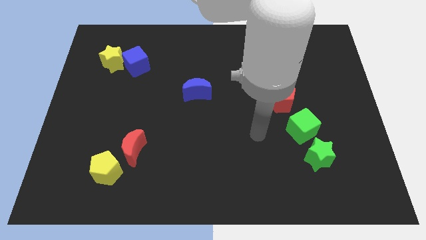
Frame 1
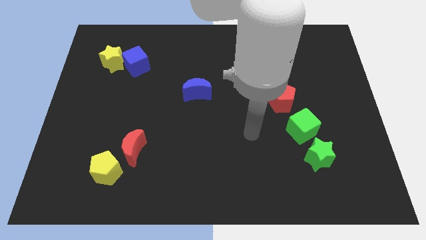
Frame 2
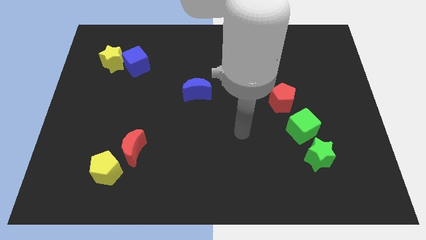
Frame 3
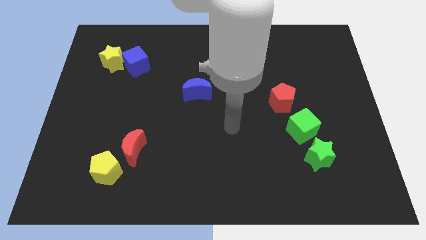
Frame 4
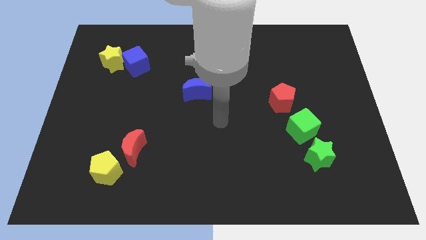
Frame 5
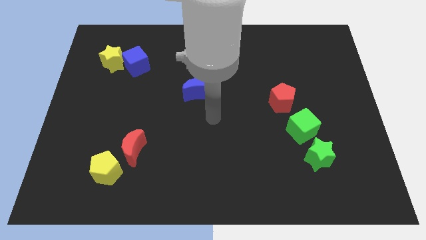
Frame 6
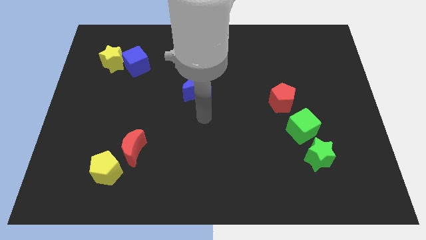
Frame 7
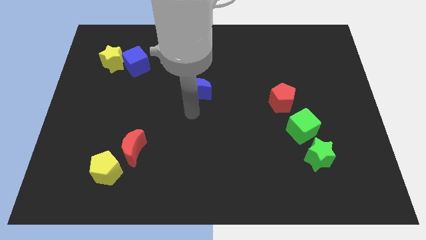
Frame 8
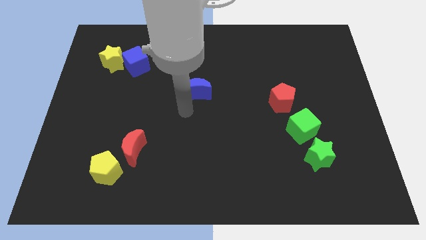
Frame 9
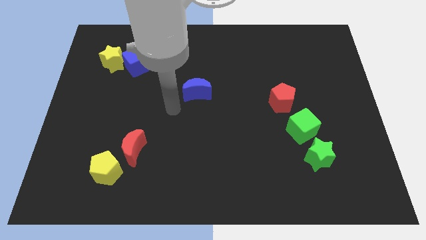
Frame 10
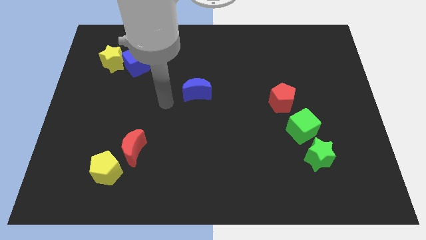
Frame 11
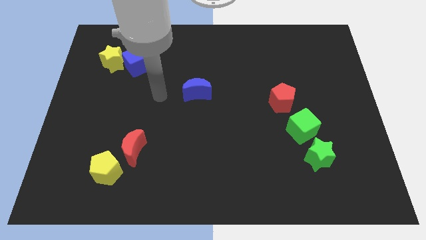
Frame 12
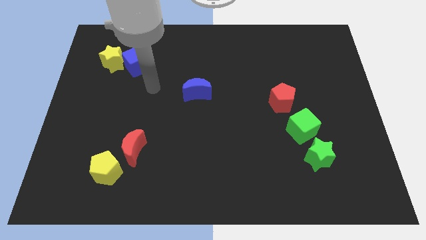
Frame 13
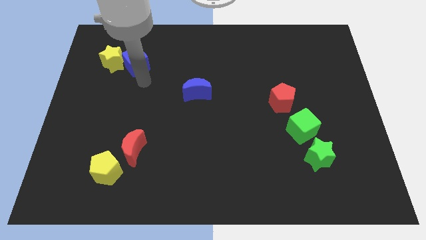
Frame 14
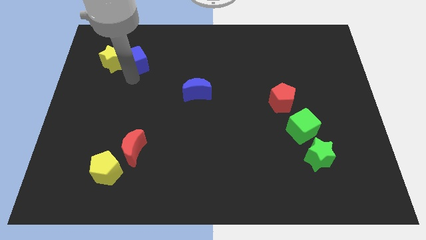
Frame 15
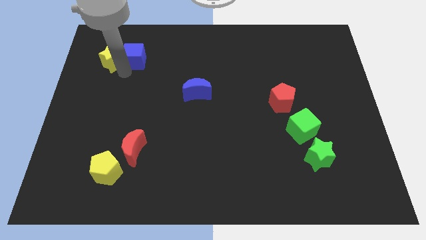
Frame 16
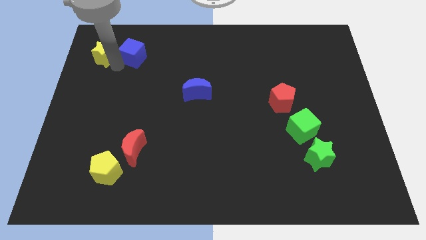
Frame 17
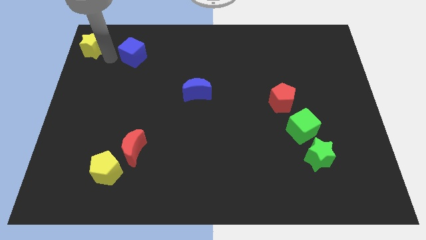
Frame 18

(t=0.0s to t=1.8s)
pull the blue cube apart from the yellow star

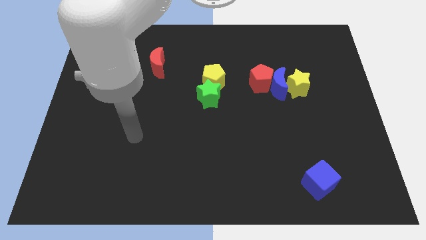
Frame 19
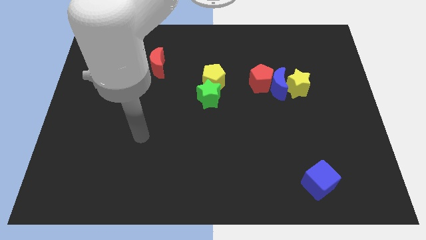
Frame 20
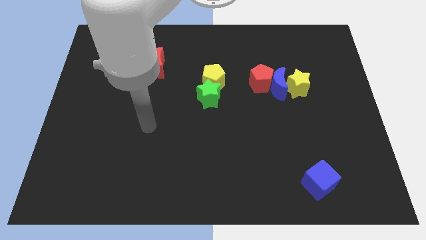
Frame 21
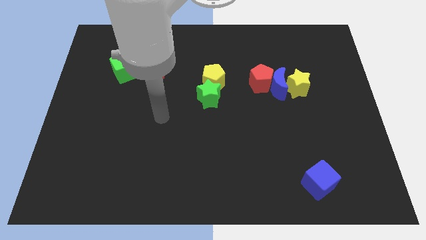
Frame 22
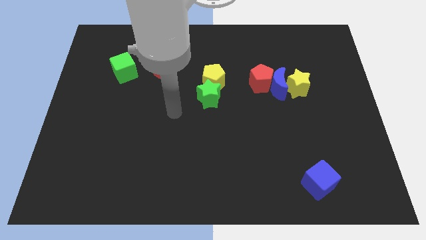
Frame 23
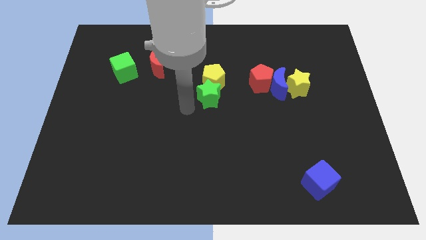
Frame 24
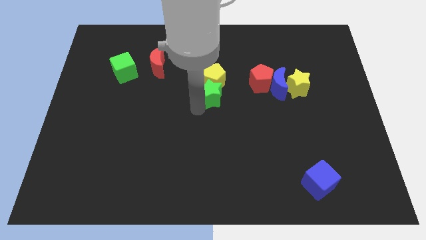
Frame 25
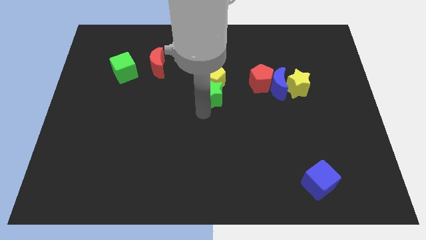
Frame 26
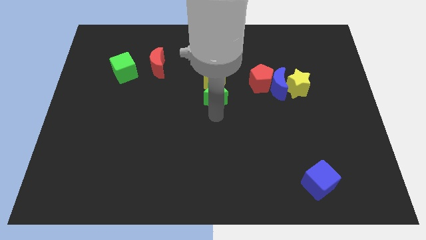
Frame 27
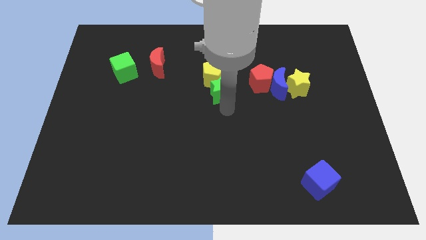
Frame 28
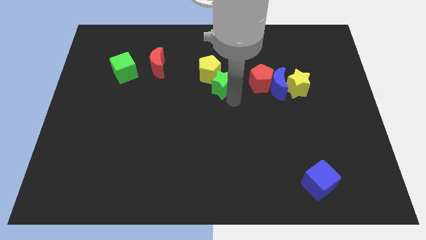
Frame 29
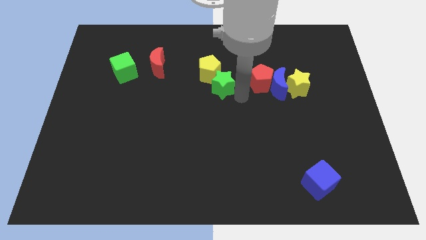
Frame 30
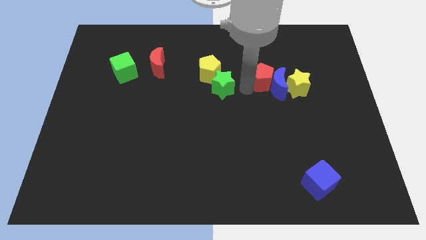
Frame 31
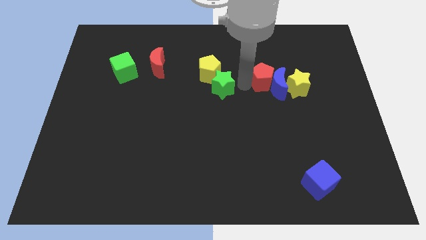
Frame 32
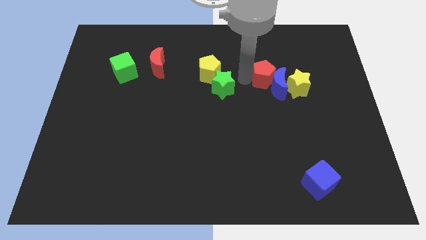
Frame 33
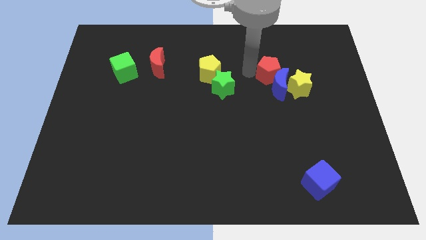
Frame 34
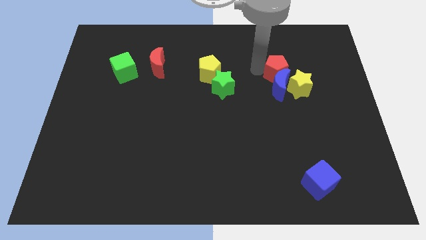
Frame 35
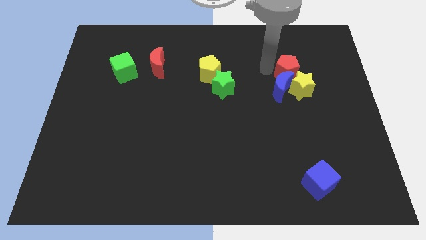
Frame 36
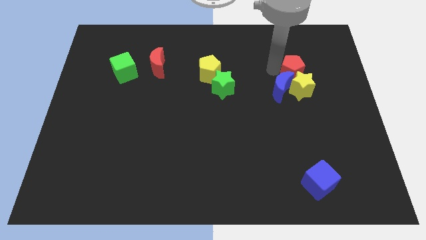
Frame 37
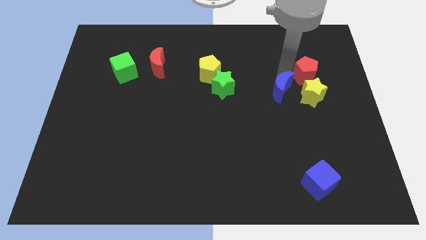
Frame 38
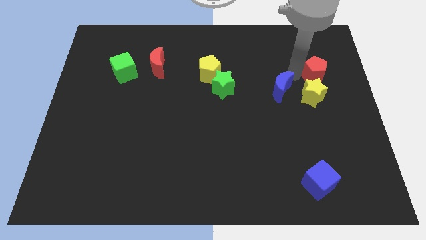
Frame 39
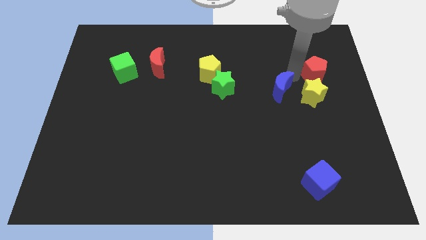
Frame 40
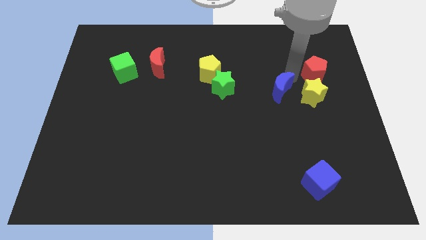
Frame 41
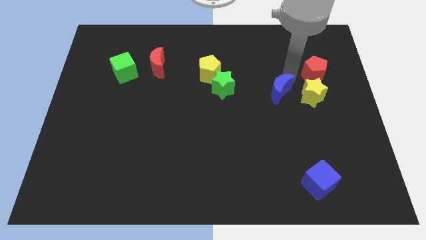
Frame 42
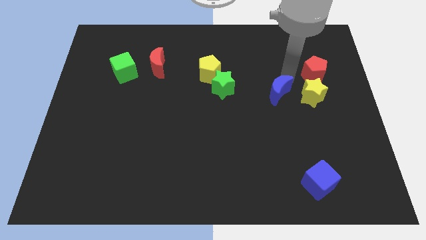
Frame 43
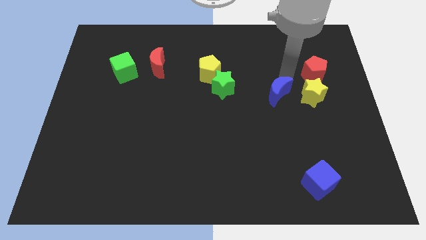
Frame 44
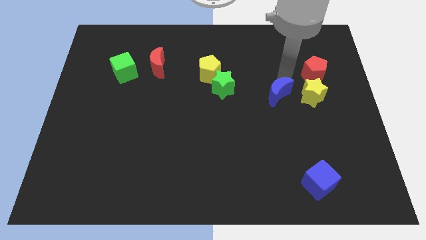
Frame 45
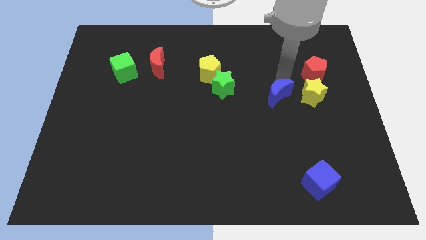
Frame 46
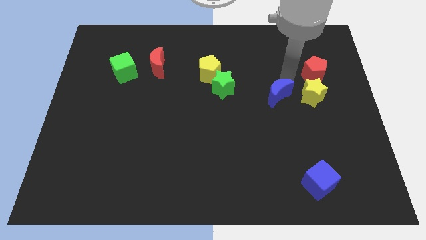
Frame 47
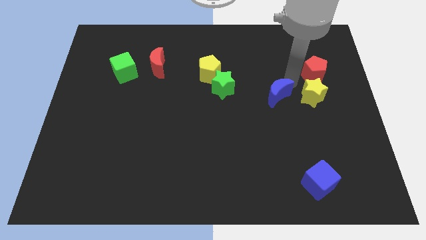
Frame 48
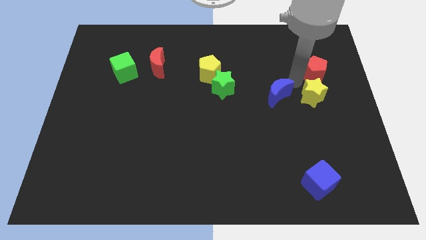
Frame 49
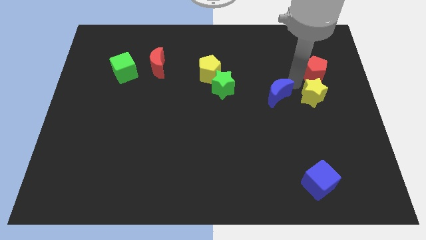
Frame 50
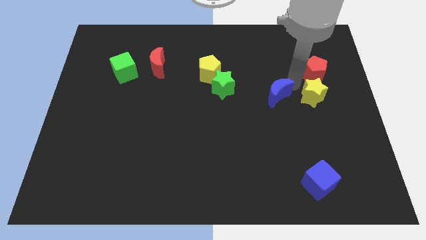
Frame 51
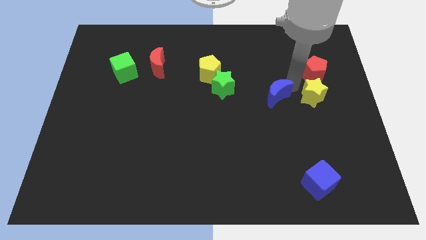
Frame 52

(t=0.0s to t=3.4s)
pull the blue moon apart from the red pentagon and yellow star

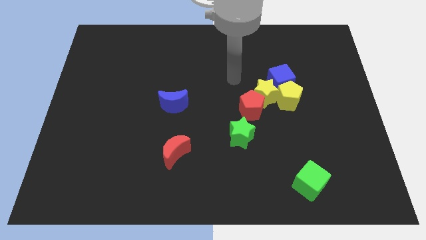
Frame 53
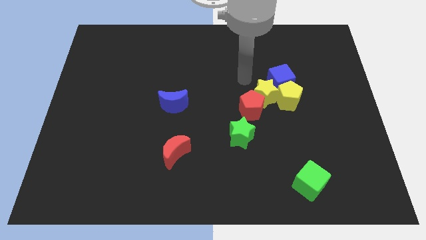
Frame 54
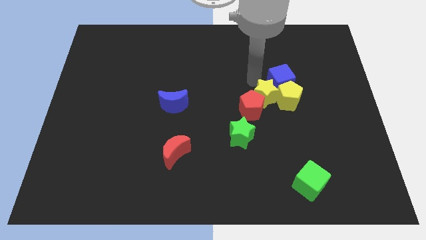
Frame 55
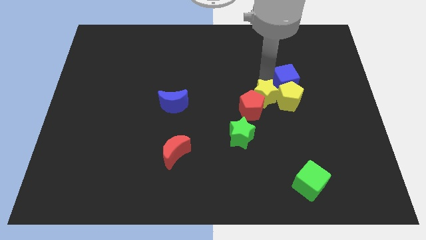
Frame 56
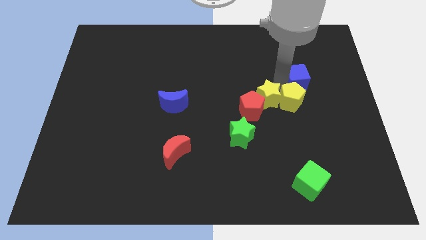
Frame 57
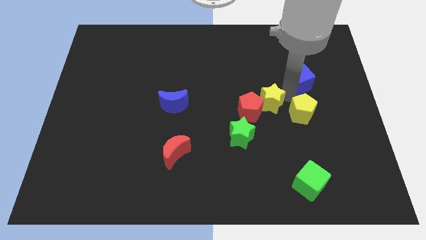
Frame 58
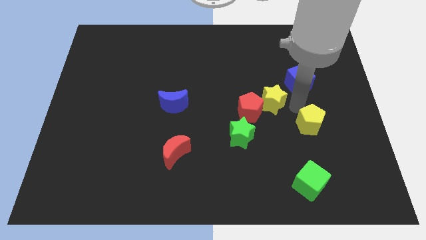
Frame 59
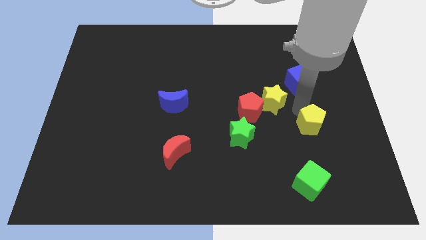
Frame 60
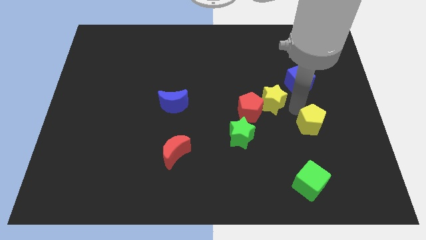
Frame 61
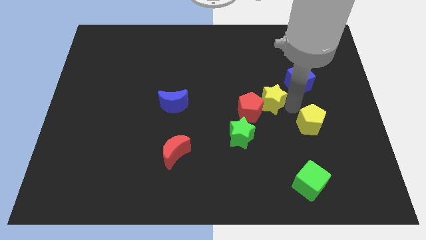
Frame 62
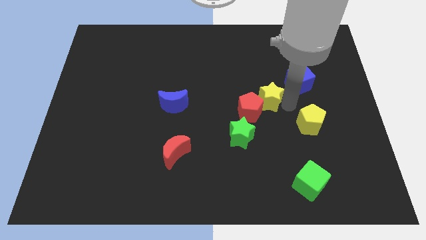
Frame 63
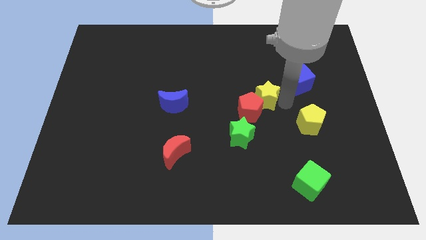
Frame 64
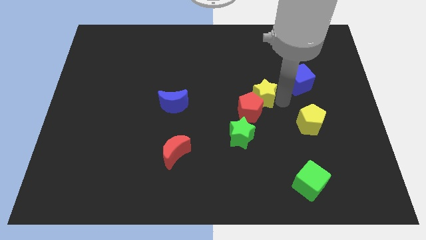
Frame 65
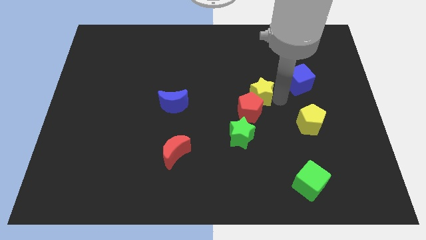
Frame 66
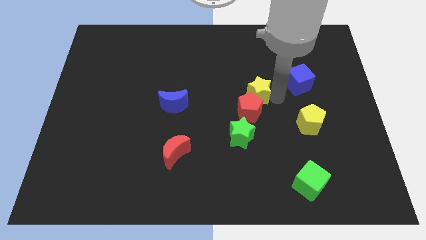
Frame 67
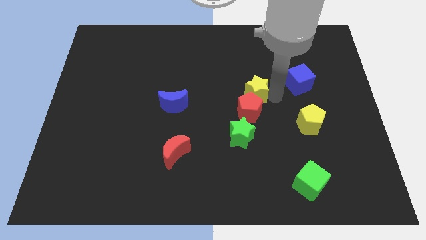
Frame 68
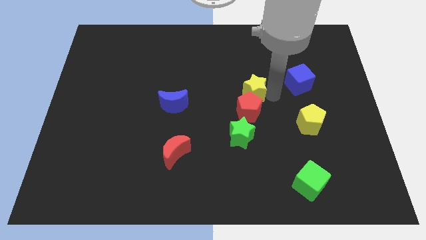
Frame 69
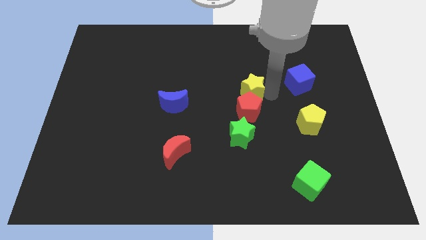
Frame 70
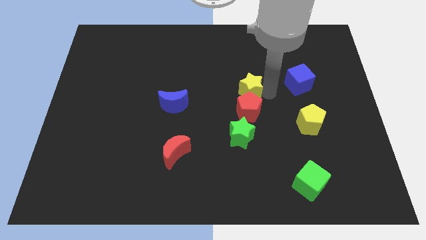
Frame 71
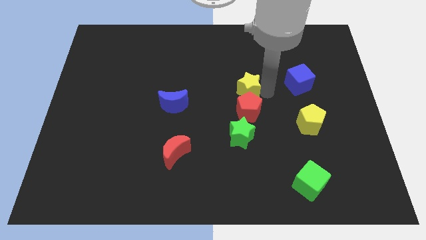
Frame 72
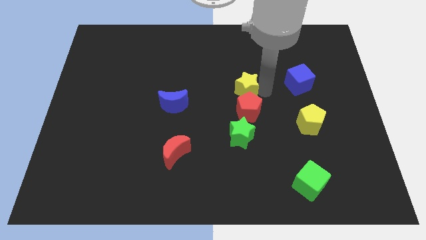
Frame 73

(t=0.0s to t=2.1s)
separate the yellow star from the red pentagon, yellow pentagon, and blue cube

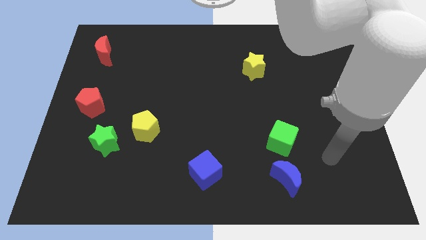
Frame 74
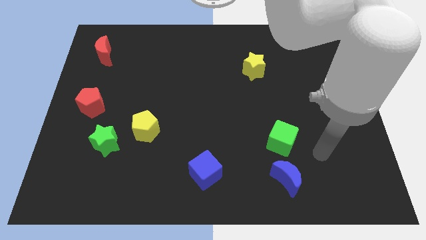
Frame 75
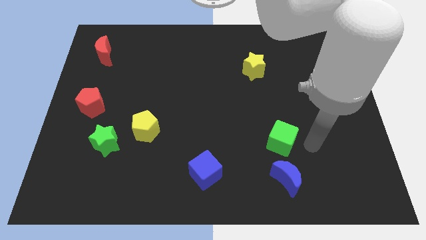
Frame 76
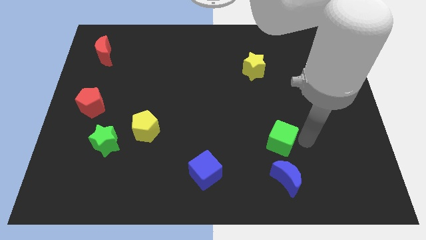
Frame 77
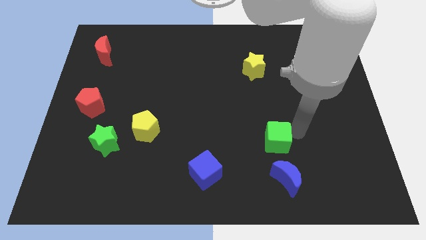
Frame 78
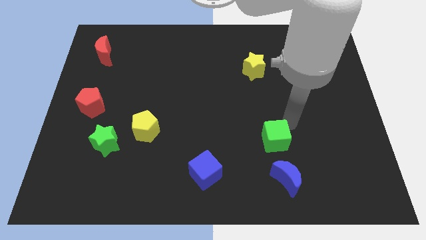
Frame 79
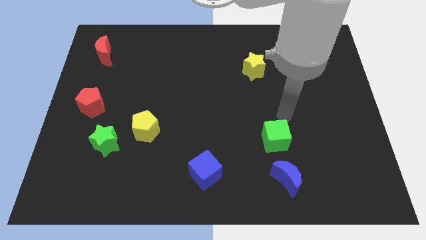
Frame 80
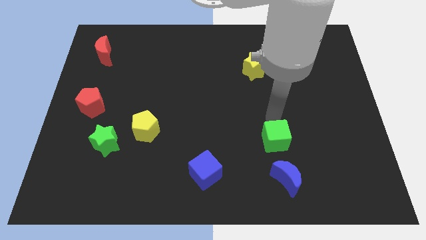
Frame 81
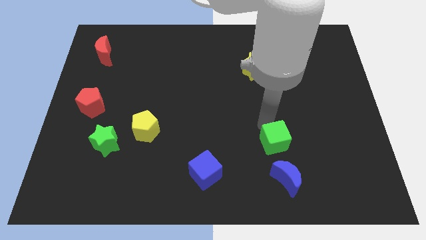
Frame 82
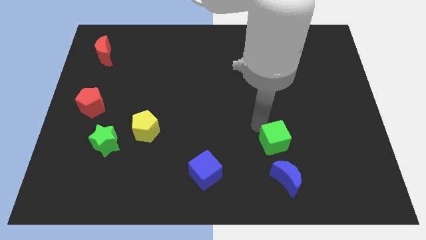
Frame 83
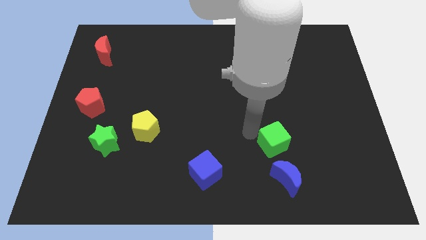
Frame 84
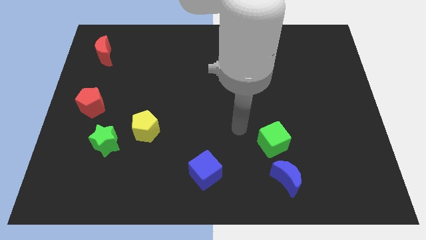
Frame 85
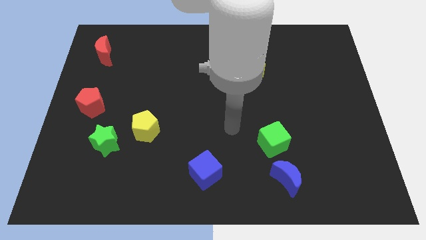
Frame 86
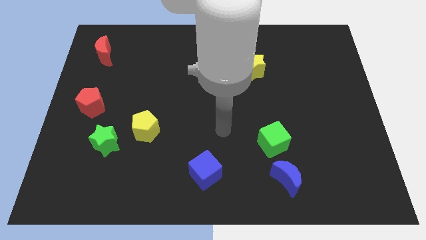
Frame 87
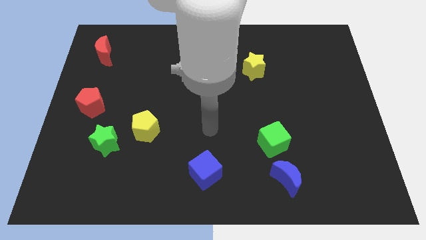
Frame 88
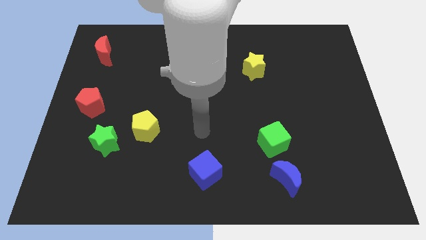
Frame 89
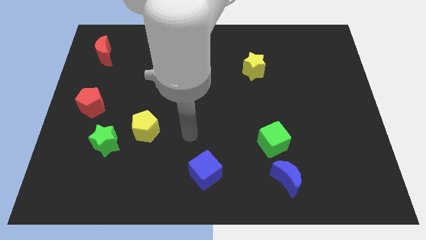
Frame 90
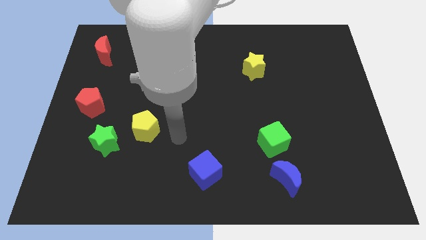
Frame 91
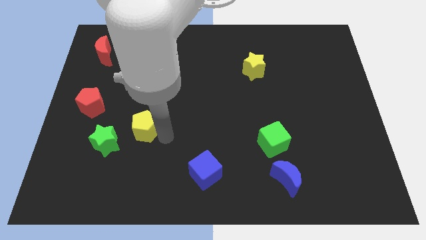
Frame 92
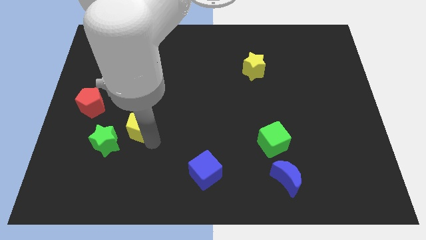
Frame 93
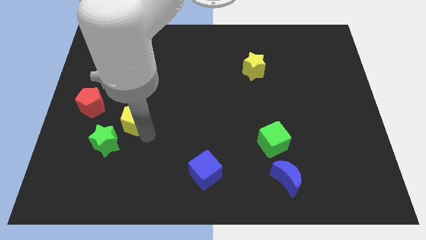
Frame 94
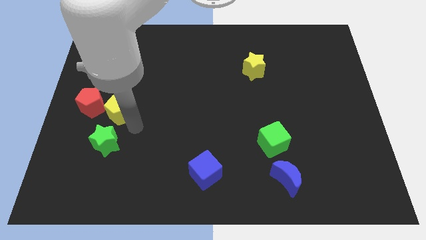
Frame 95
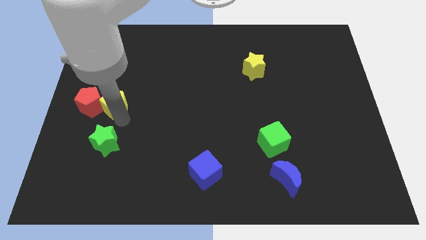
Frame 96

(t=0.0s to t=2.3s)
separate the green star from the yellow pentagon

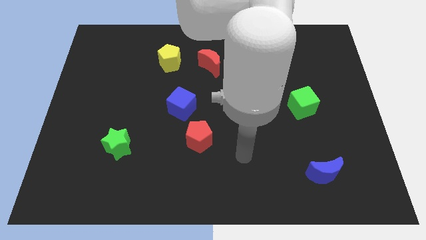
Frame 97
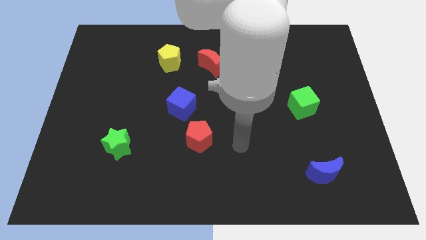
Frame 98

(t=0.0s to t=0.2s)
pull the red pentagon apart from the blue cube
